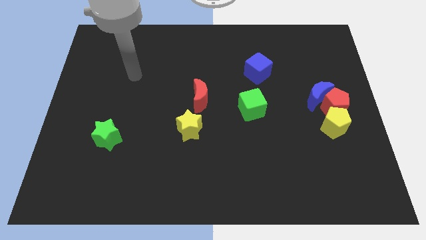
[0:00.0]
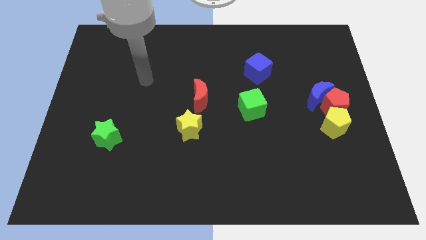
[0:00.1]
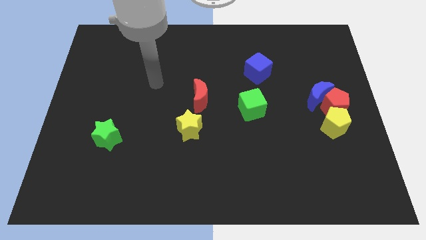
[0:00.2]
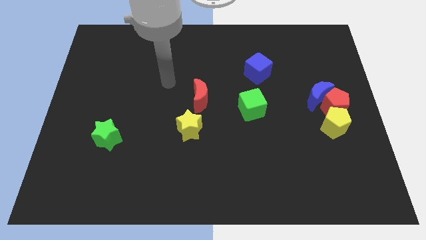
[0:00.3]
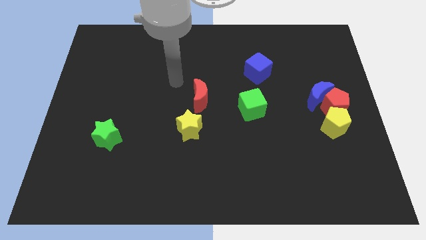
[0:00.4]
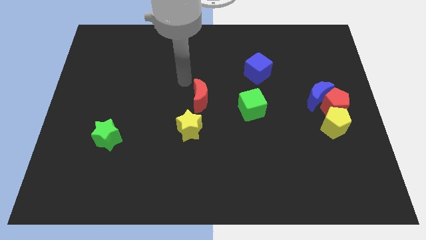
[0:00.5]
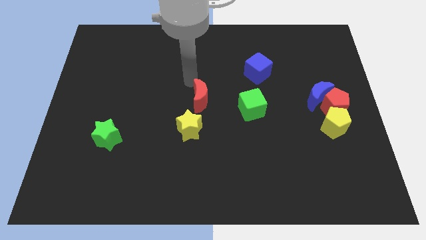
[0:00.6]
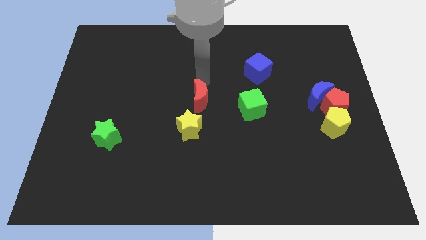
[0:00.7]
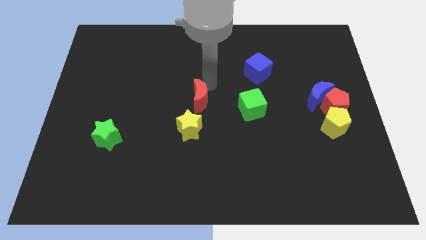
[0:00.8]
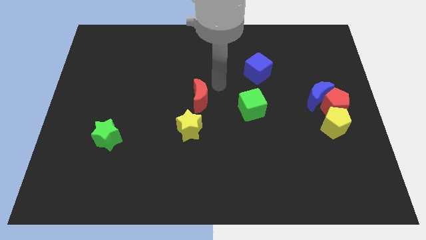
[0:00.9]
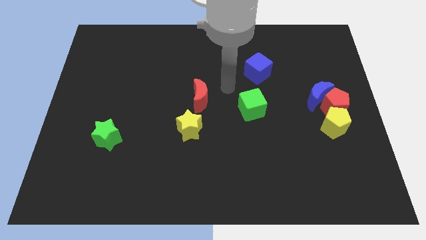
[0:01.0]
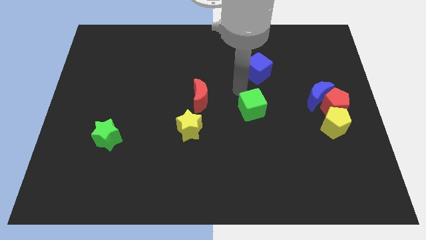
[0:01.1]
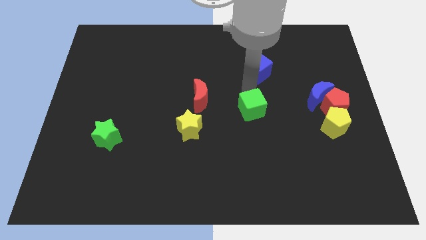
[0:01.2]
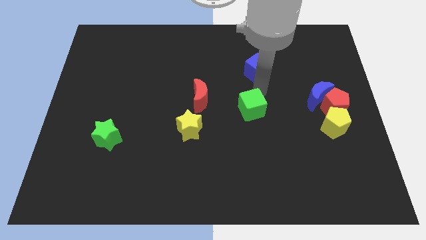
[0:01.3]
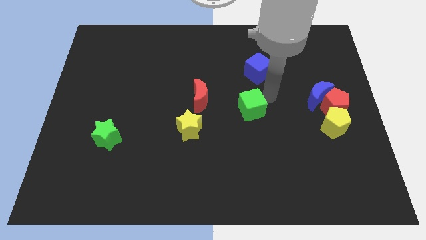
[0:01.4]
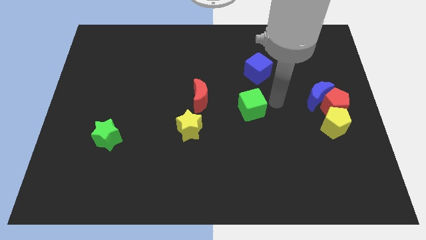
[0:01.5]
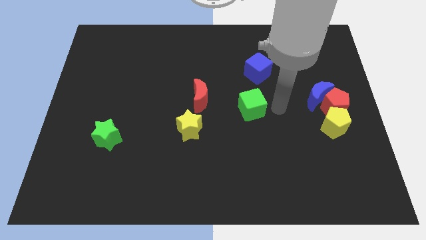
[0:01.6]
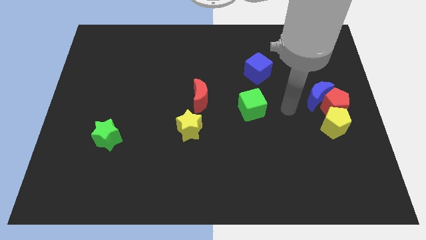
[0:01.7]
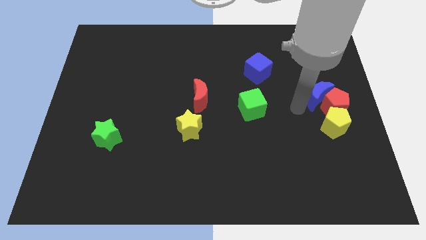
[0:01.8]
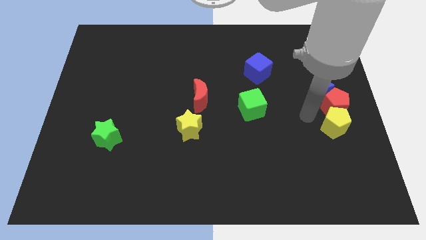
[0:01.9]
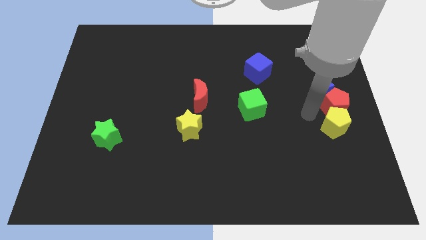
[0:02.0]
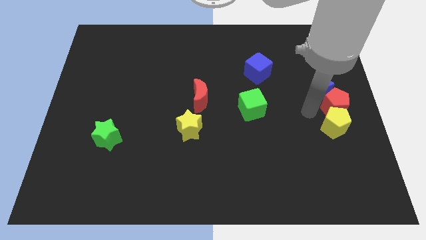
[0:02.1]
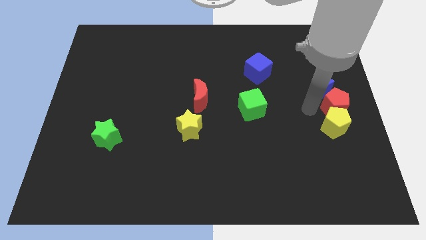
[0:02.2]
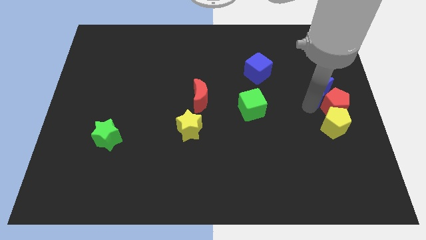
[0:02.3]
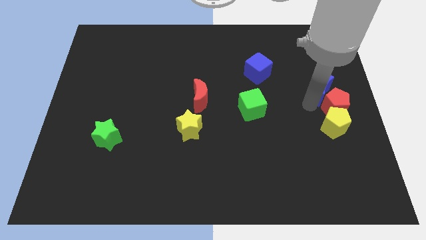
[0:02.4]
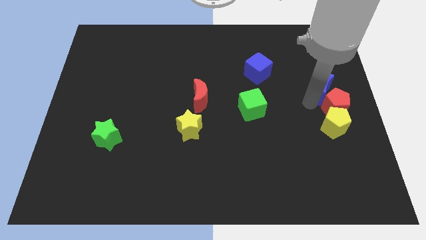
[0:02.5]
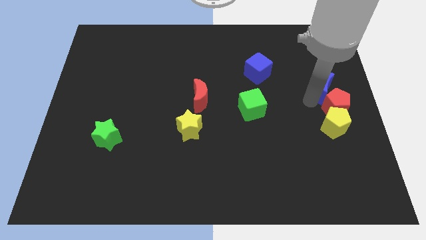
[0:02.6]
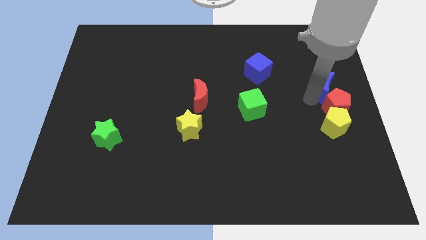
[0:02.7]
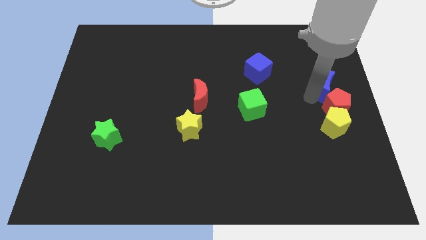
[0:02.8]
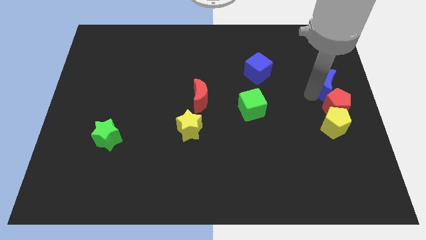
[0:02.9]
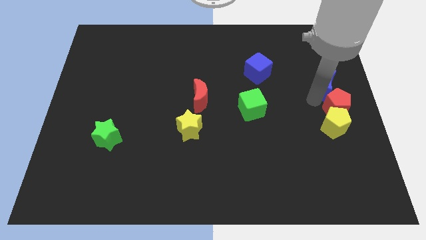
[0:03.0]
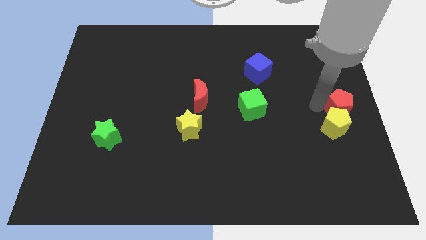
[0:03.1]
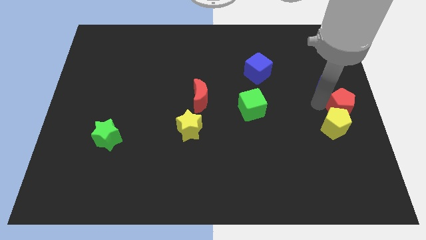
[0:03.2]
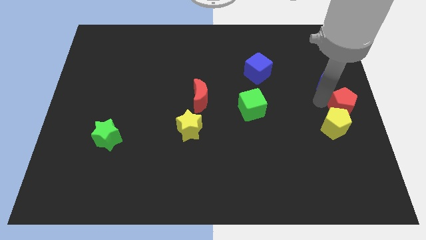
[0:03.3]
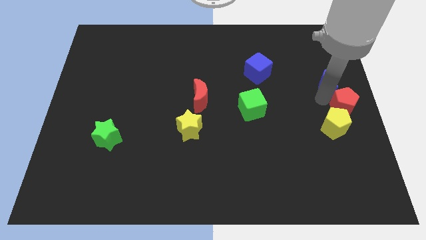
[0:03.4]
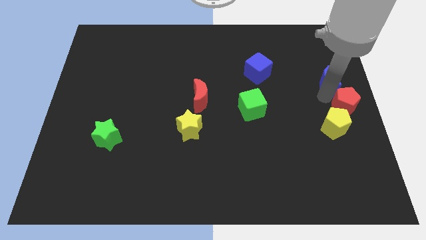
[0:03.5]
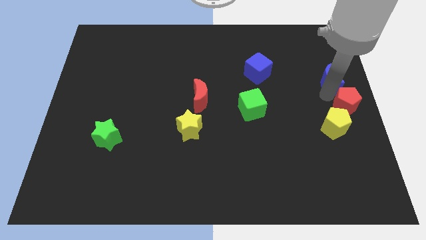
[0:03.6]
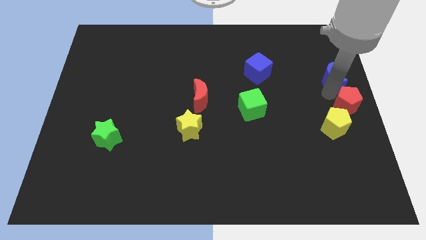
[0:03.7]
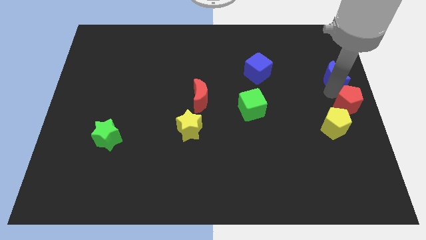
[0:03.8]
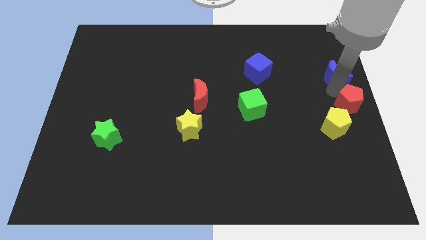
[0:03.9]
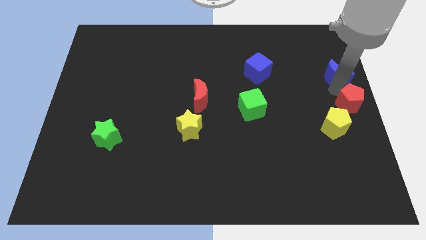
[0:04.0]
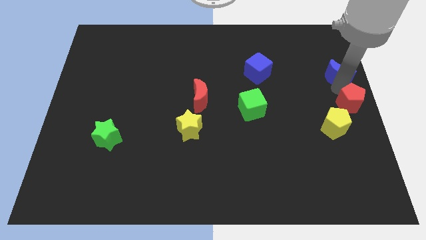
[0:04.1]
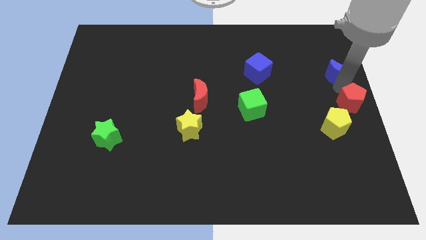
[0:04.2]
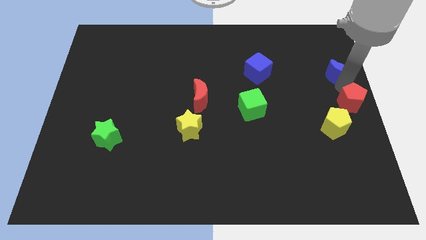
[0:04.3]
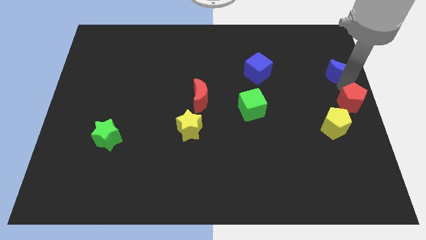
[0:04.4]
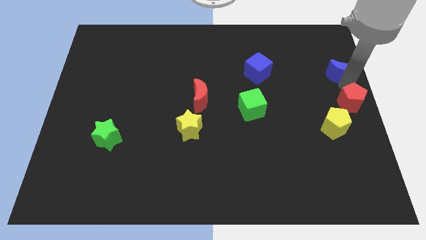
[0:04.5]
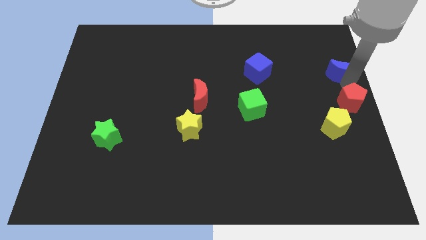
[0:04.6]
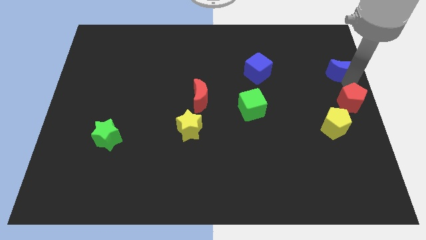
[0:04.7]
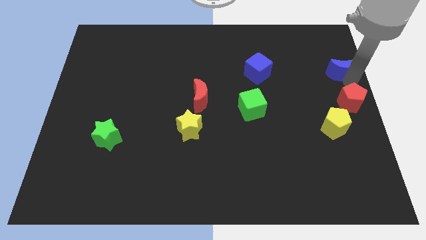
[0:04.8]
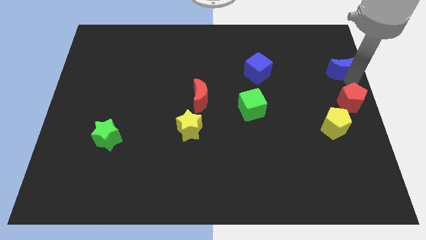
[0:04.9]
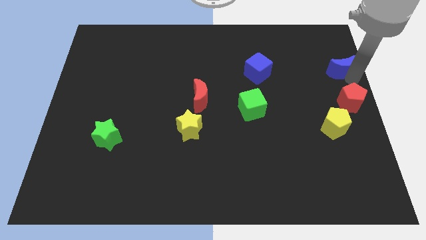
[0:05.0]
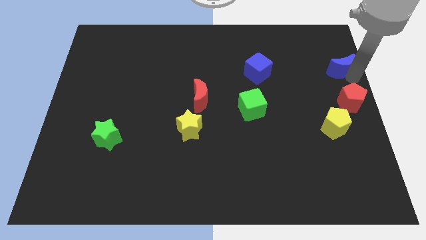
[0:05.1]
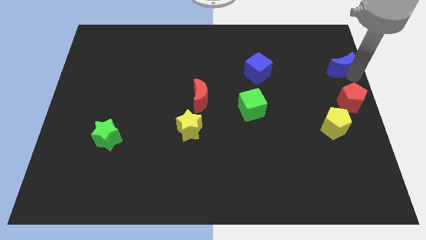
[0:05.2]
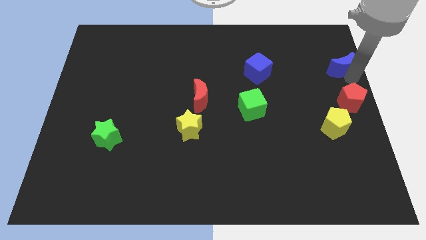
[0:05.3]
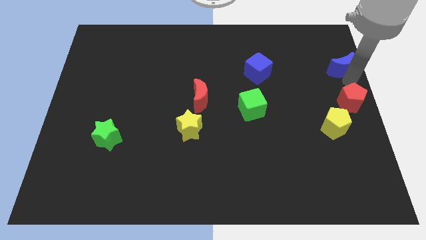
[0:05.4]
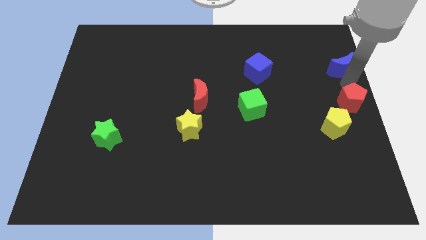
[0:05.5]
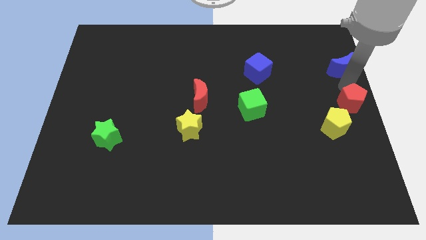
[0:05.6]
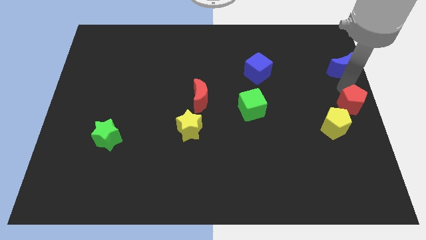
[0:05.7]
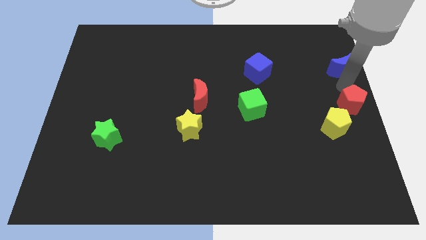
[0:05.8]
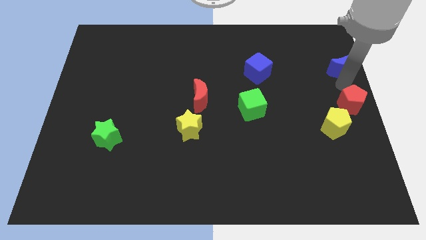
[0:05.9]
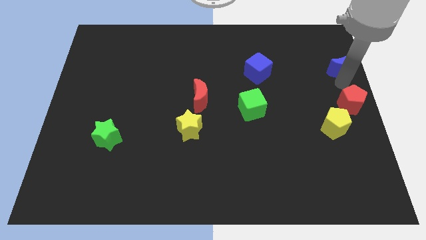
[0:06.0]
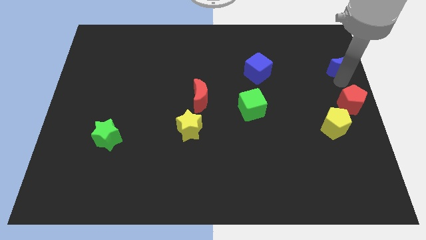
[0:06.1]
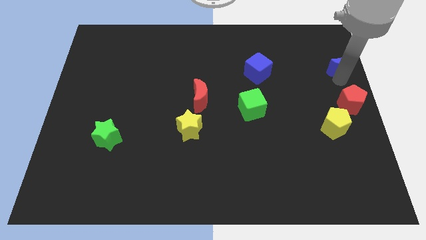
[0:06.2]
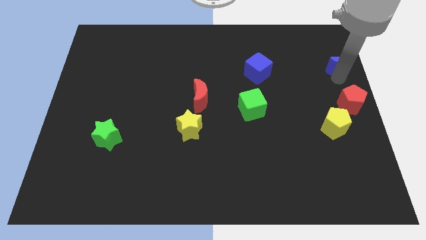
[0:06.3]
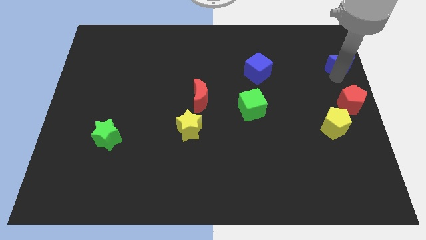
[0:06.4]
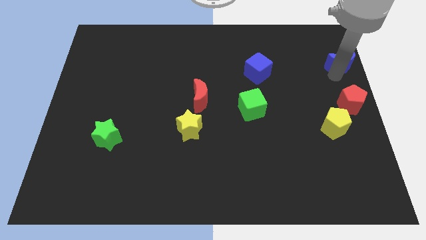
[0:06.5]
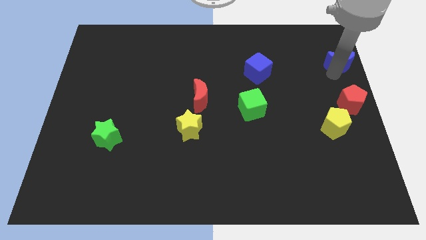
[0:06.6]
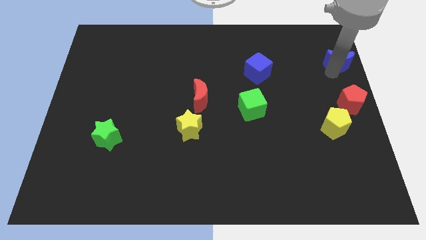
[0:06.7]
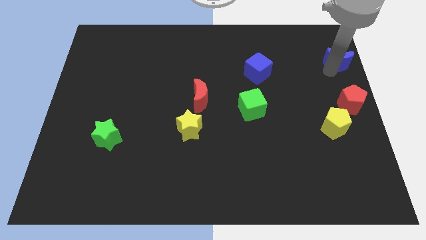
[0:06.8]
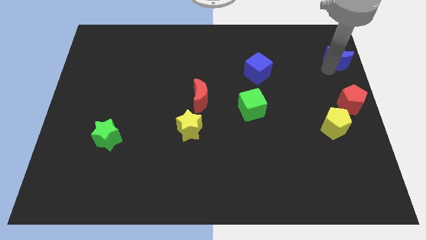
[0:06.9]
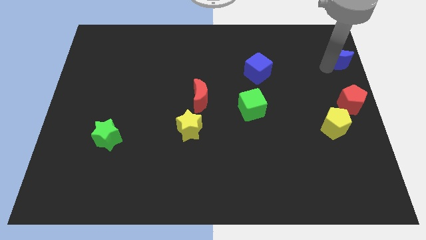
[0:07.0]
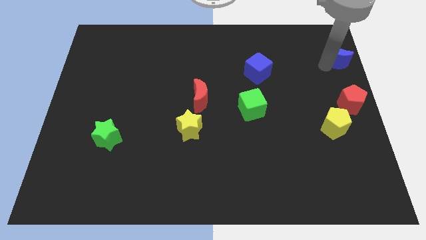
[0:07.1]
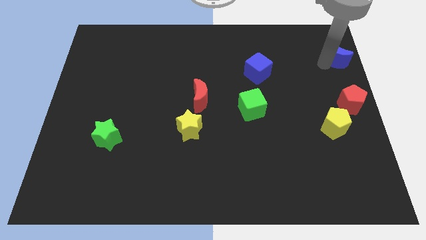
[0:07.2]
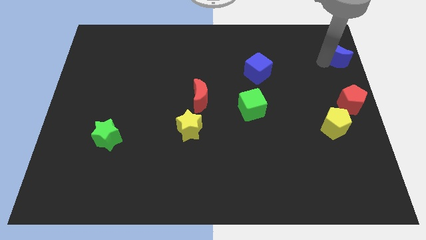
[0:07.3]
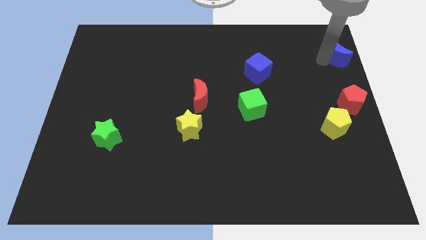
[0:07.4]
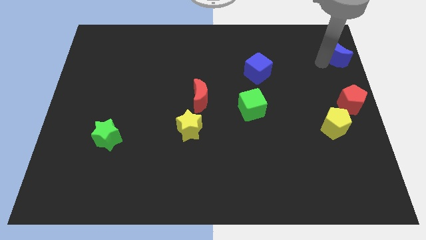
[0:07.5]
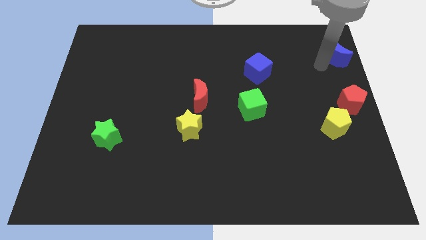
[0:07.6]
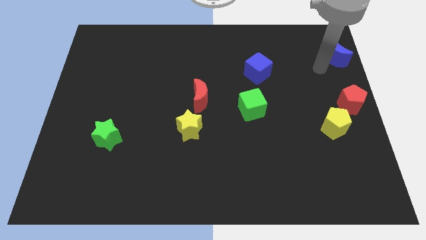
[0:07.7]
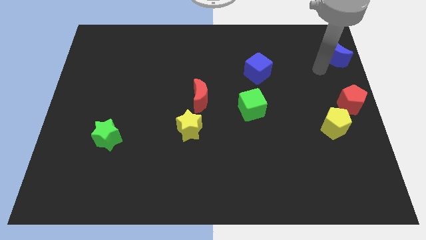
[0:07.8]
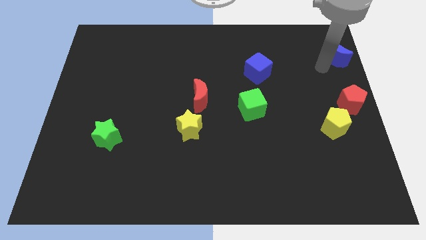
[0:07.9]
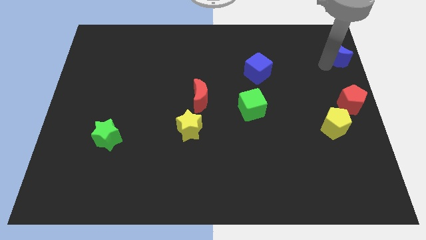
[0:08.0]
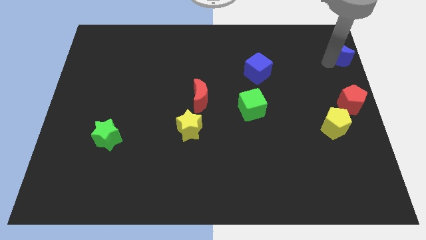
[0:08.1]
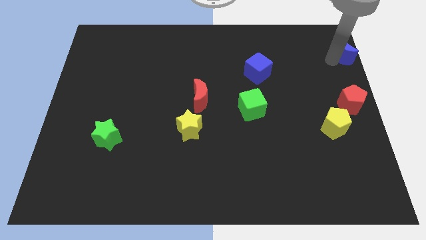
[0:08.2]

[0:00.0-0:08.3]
push the blue moon to the top right of the board
